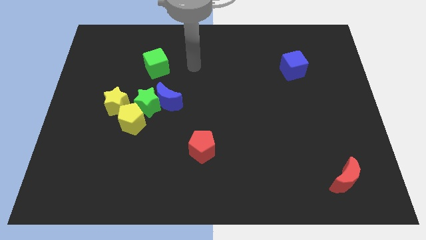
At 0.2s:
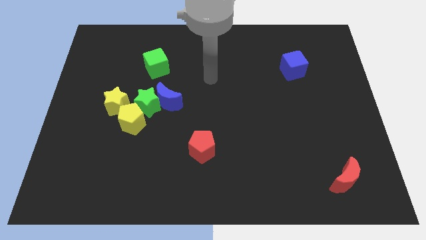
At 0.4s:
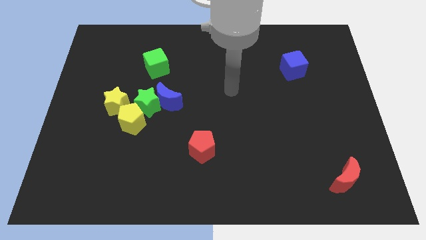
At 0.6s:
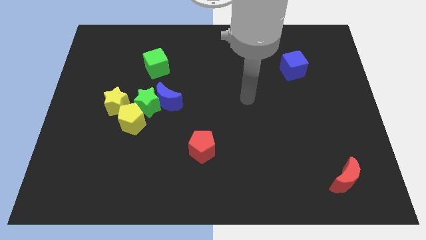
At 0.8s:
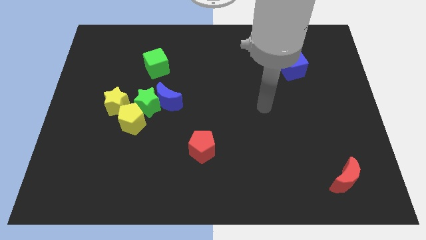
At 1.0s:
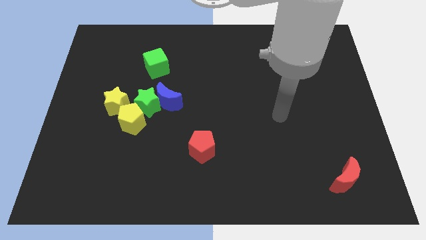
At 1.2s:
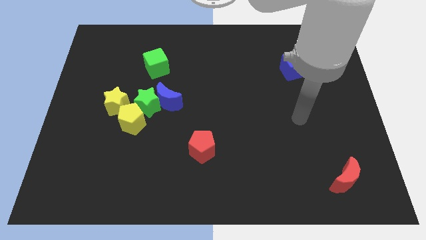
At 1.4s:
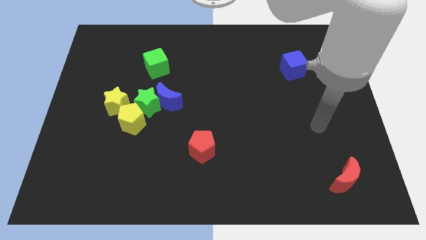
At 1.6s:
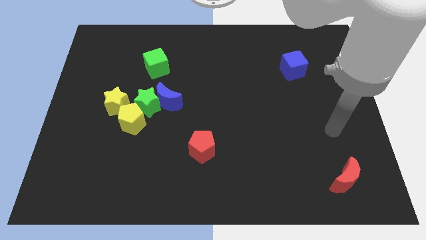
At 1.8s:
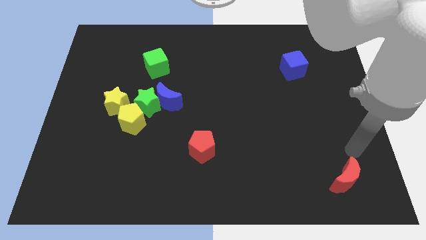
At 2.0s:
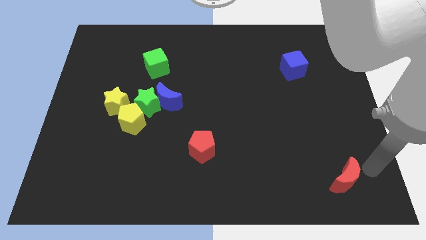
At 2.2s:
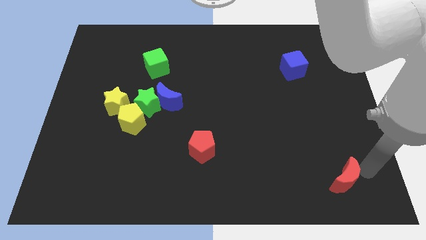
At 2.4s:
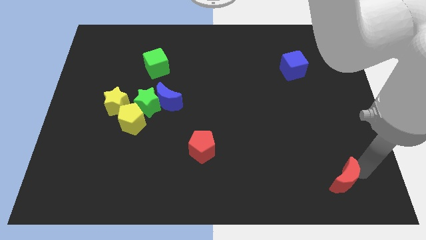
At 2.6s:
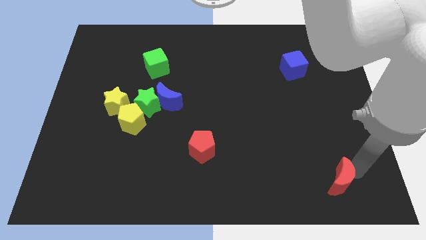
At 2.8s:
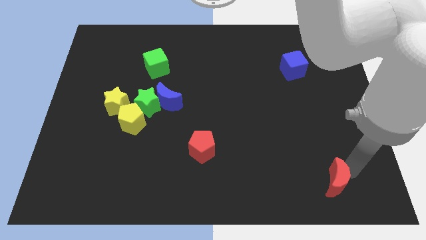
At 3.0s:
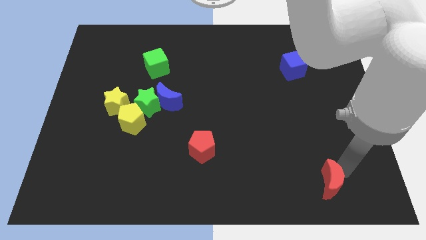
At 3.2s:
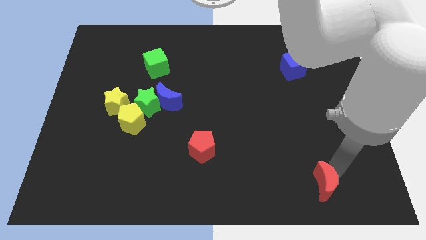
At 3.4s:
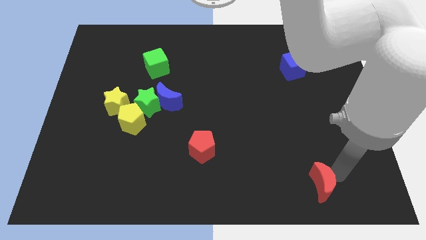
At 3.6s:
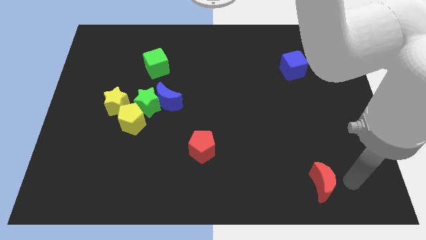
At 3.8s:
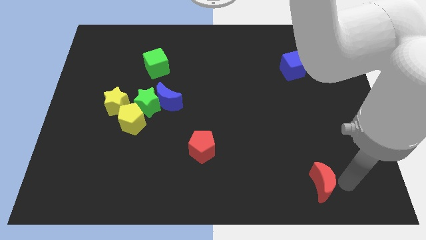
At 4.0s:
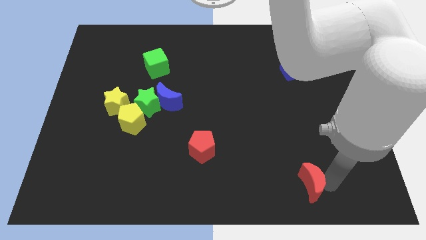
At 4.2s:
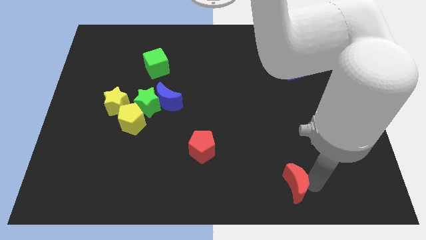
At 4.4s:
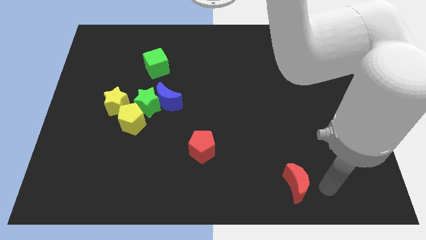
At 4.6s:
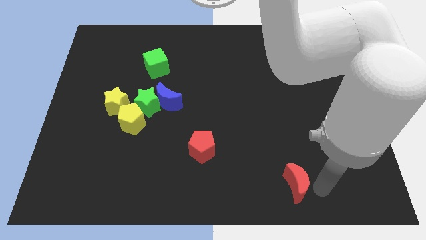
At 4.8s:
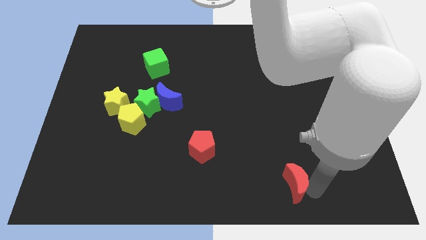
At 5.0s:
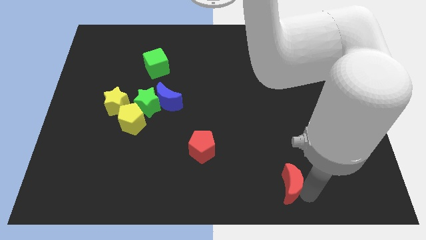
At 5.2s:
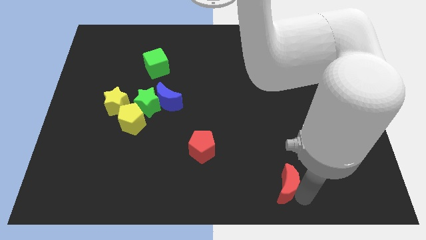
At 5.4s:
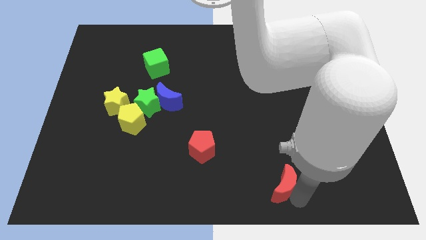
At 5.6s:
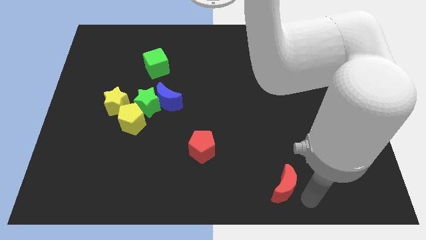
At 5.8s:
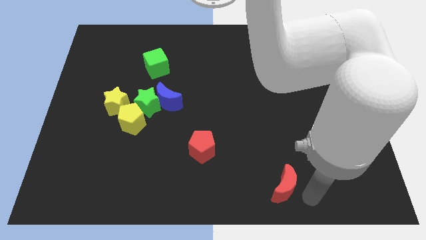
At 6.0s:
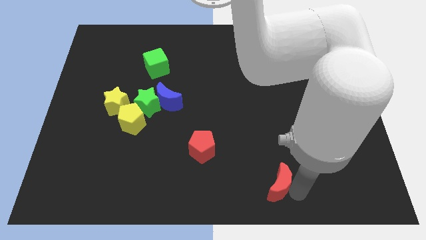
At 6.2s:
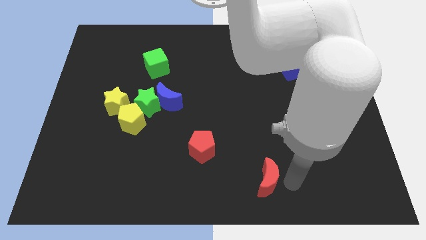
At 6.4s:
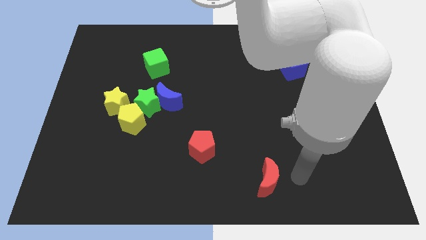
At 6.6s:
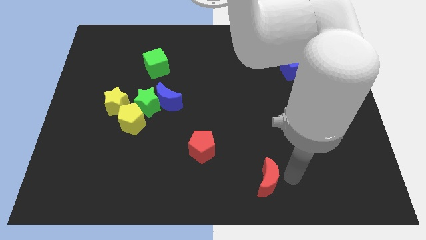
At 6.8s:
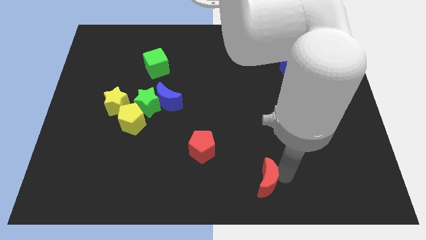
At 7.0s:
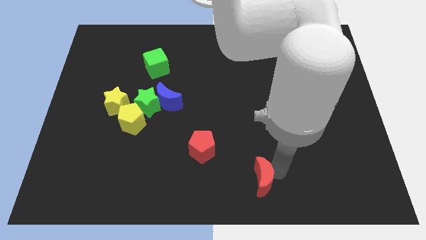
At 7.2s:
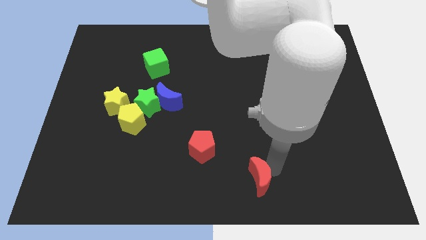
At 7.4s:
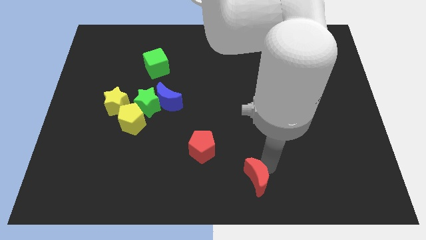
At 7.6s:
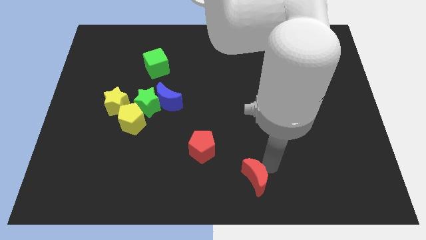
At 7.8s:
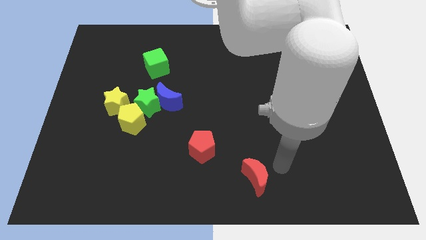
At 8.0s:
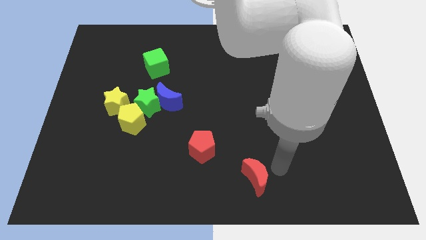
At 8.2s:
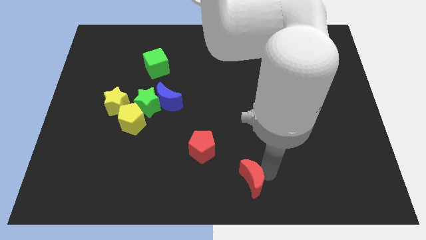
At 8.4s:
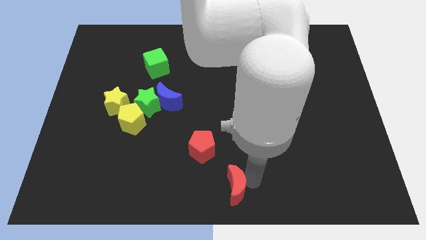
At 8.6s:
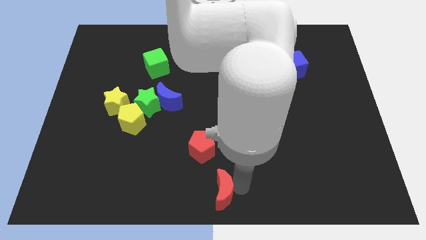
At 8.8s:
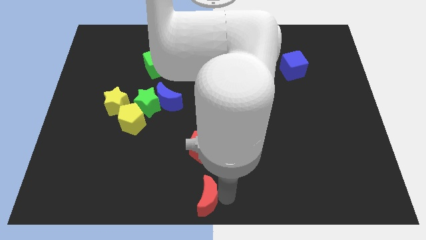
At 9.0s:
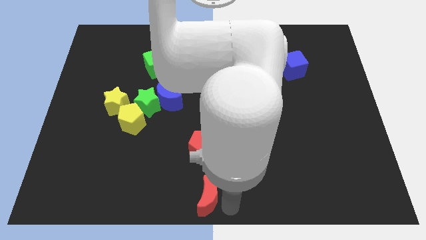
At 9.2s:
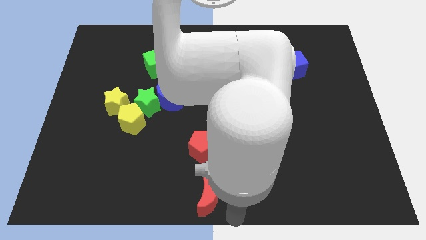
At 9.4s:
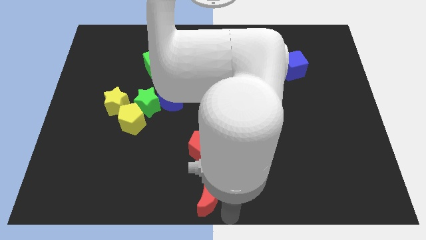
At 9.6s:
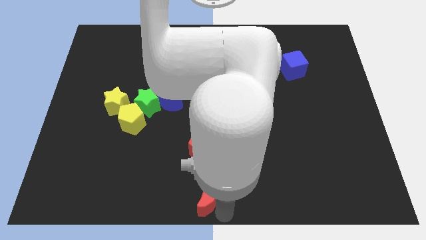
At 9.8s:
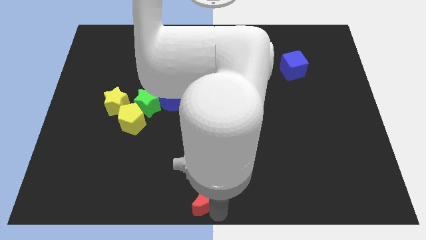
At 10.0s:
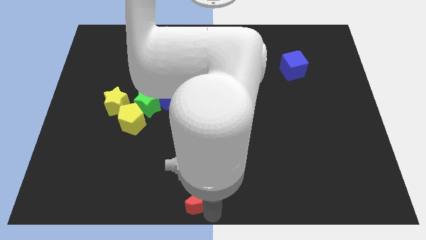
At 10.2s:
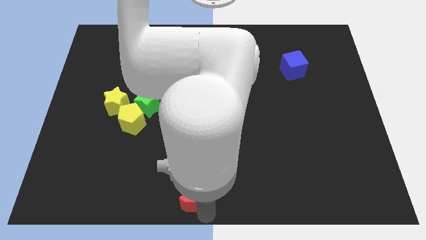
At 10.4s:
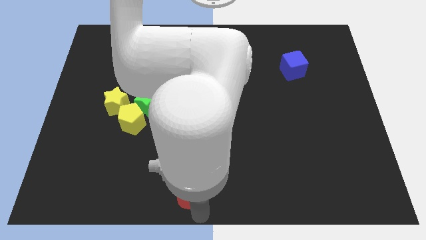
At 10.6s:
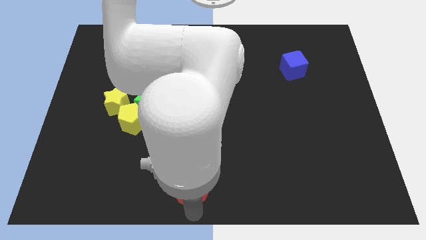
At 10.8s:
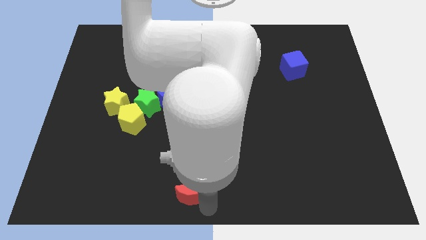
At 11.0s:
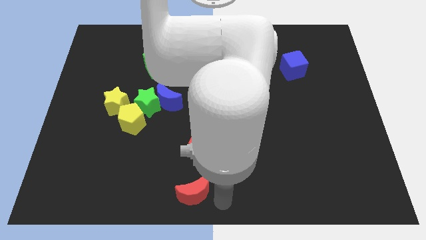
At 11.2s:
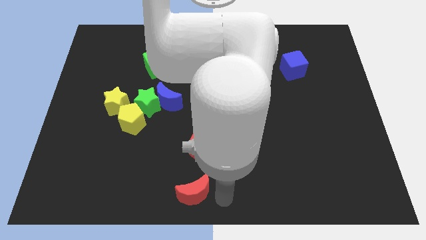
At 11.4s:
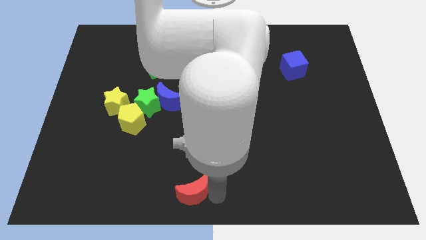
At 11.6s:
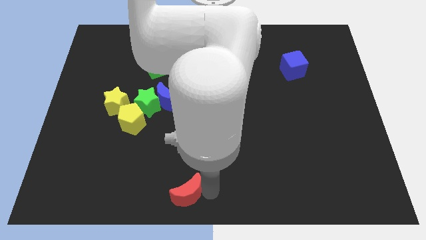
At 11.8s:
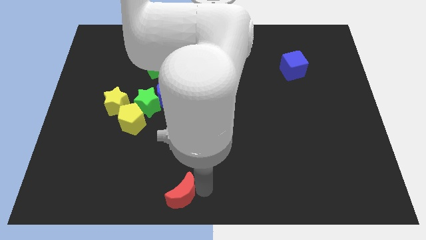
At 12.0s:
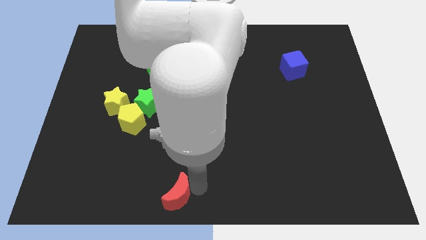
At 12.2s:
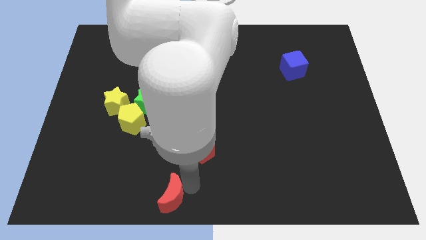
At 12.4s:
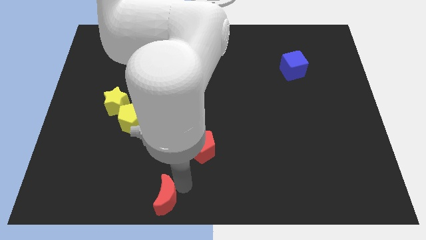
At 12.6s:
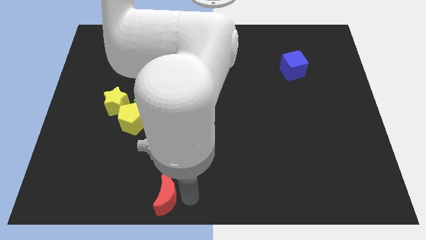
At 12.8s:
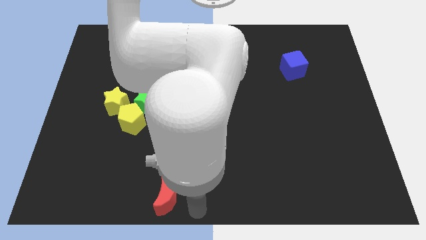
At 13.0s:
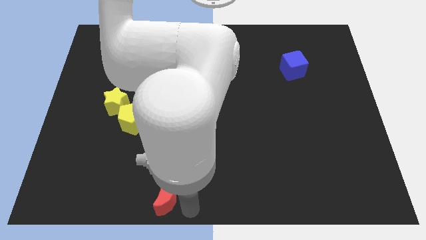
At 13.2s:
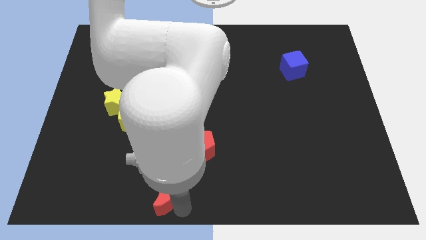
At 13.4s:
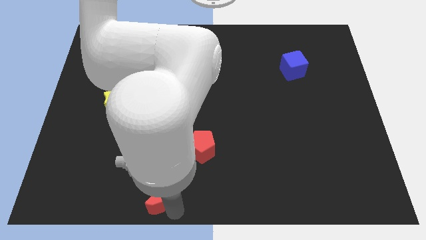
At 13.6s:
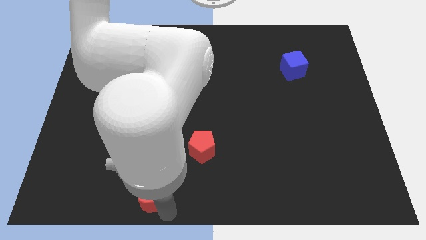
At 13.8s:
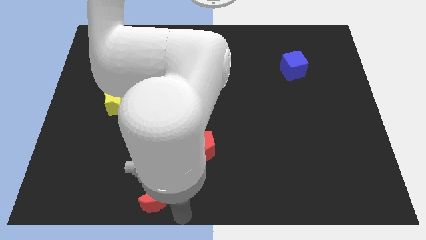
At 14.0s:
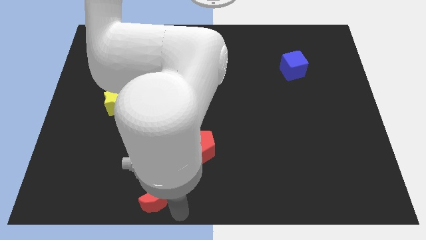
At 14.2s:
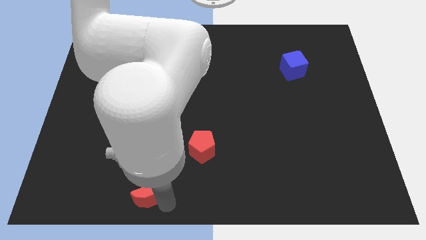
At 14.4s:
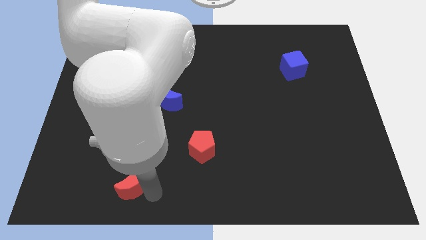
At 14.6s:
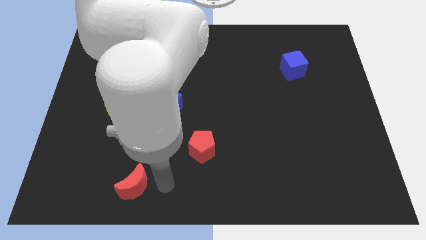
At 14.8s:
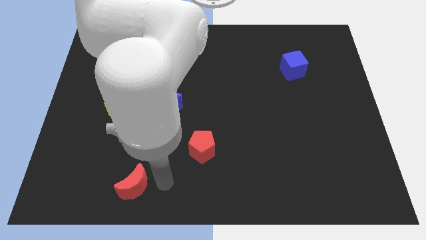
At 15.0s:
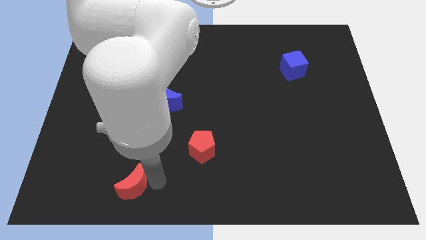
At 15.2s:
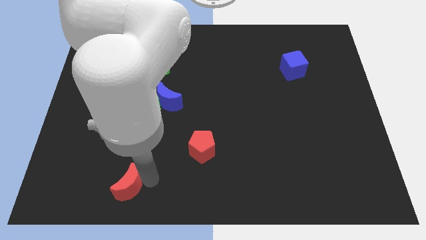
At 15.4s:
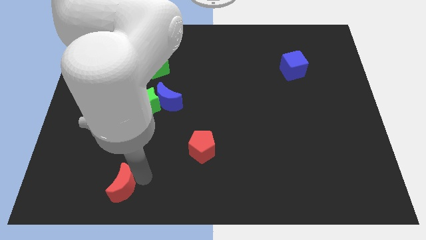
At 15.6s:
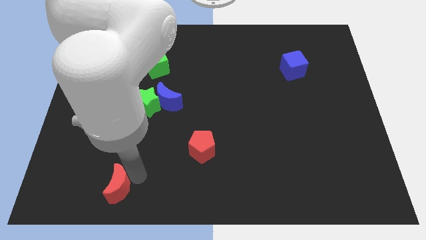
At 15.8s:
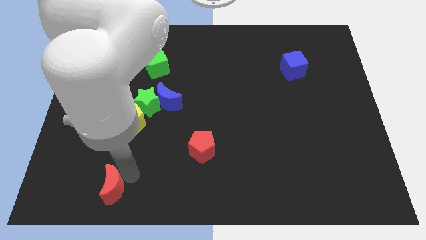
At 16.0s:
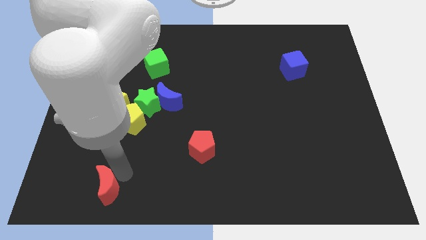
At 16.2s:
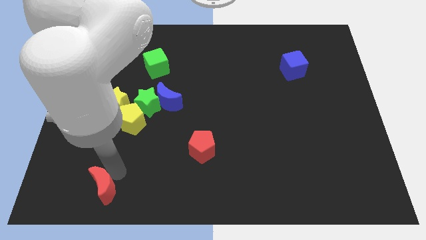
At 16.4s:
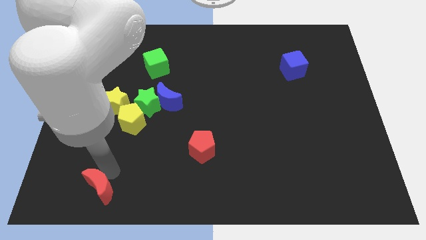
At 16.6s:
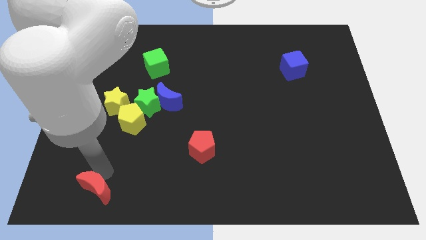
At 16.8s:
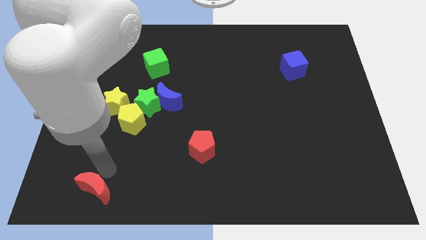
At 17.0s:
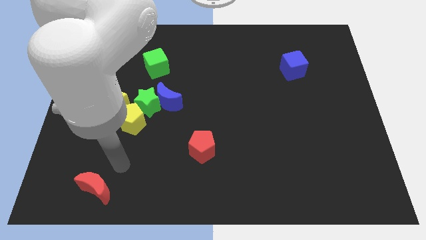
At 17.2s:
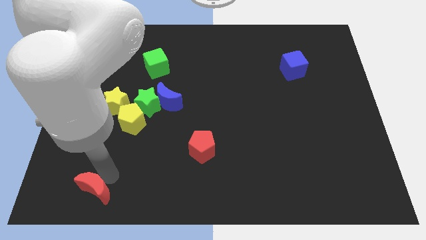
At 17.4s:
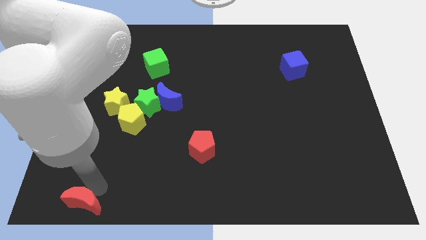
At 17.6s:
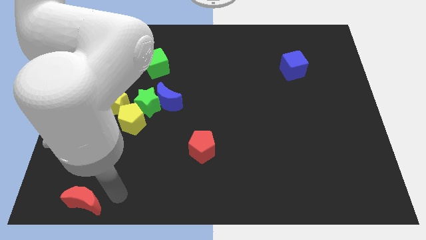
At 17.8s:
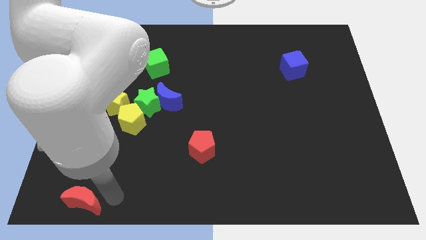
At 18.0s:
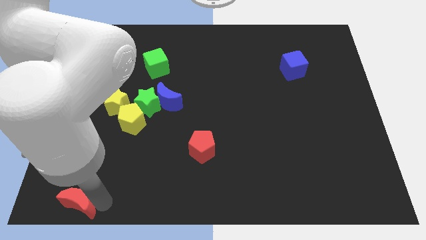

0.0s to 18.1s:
push the red moon to the bottom left
